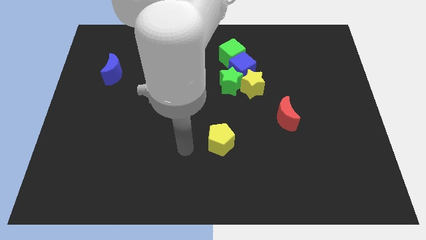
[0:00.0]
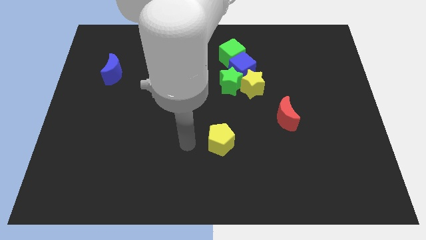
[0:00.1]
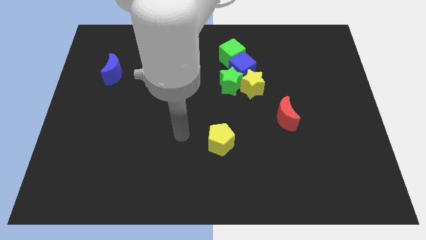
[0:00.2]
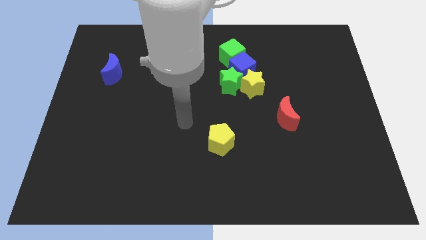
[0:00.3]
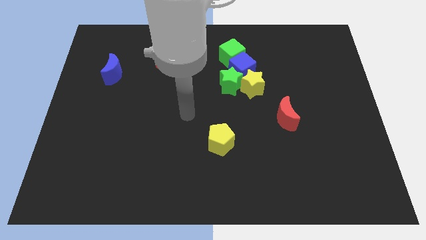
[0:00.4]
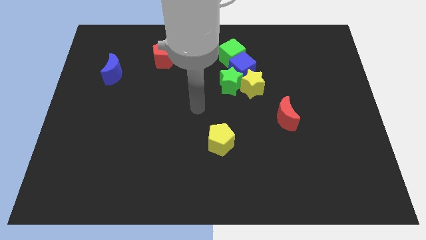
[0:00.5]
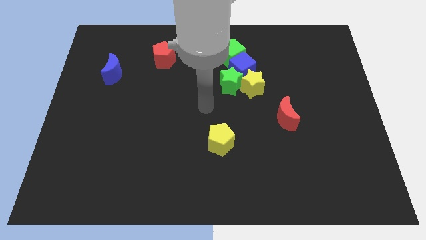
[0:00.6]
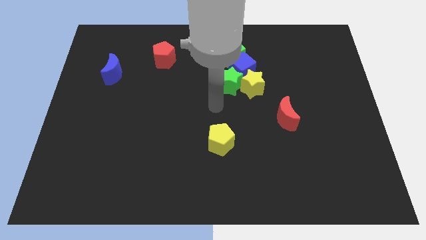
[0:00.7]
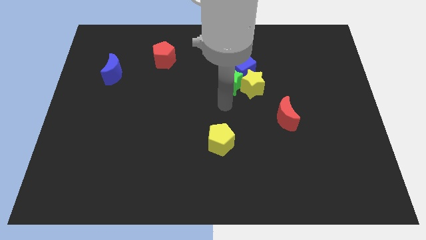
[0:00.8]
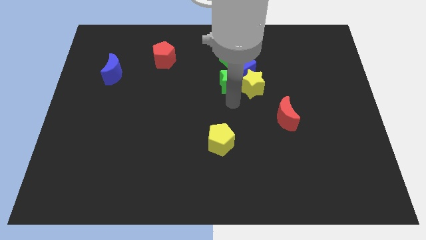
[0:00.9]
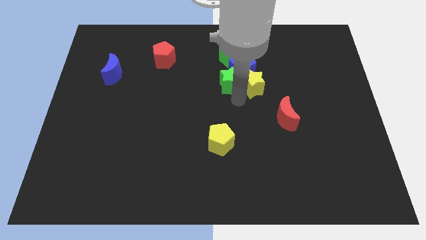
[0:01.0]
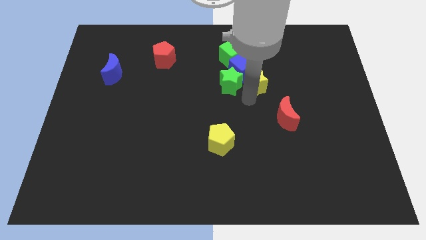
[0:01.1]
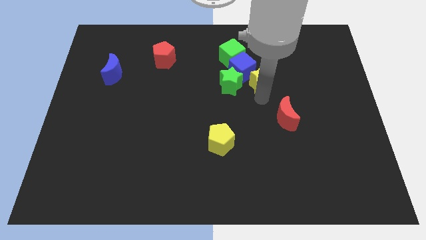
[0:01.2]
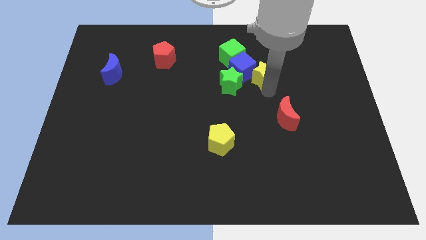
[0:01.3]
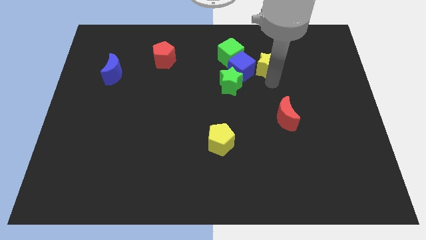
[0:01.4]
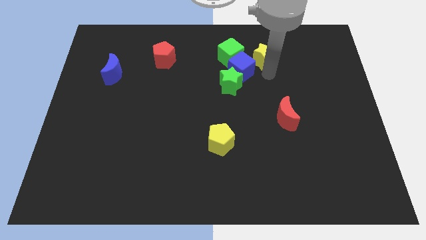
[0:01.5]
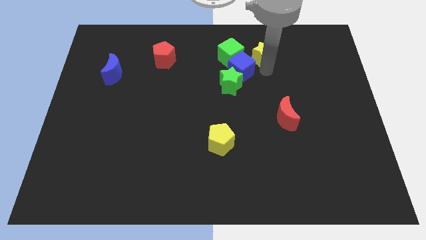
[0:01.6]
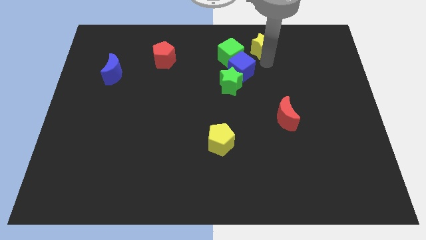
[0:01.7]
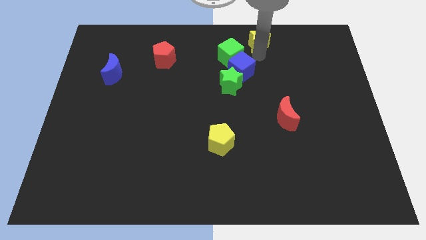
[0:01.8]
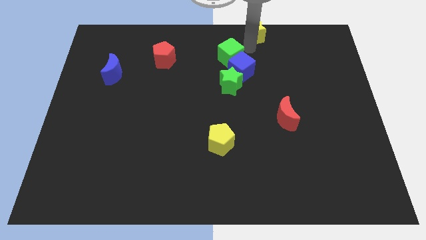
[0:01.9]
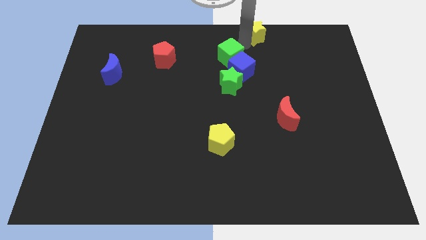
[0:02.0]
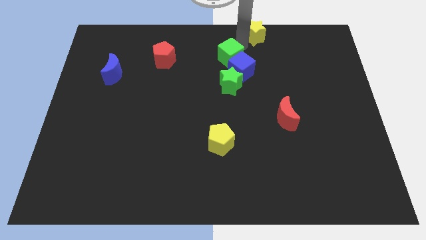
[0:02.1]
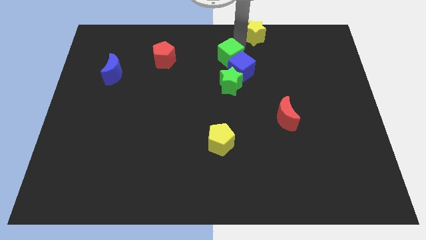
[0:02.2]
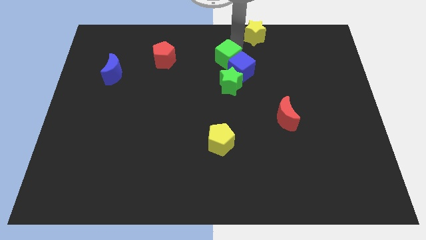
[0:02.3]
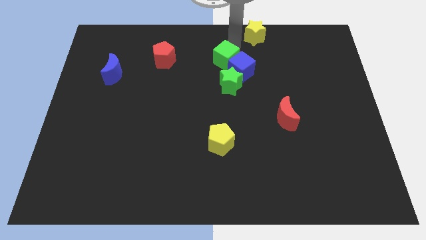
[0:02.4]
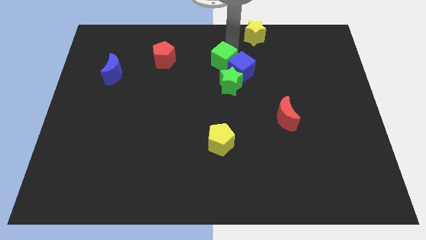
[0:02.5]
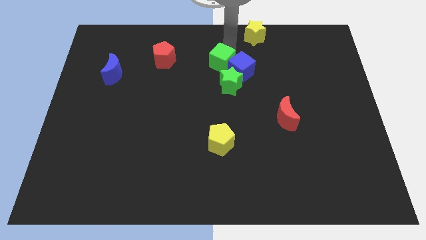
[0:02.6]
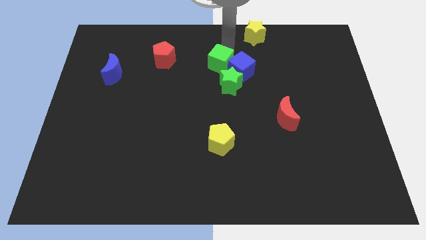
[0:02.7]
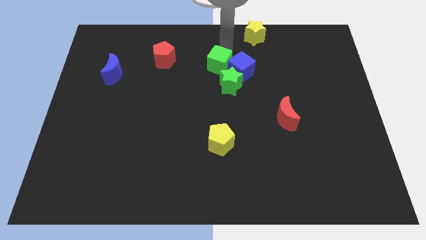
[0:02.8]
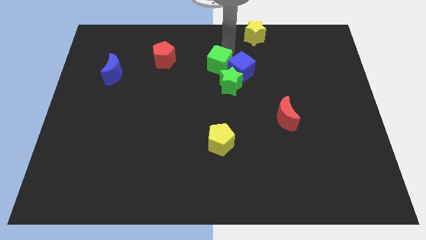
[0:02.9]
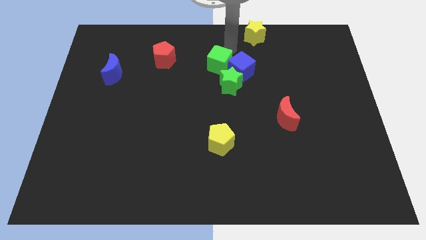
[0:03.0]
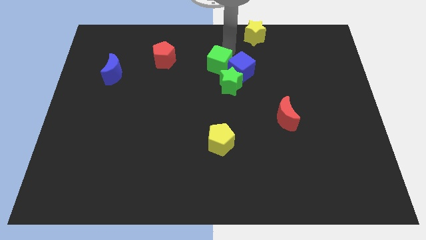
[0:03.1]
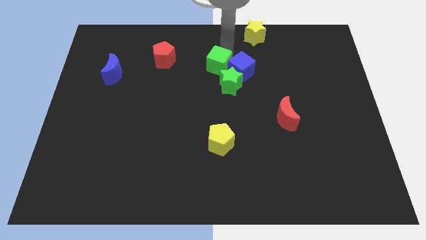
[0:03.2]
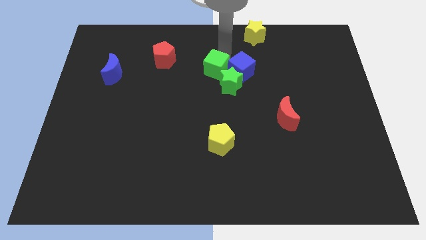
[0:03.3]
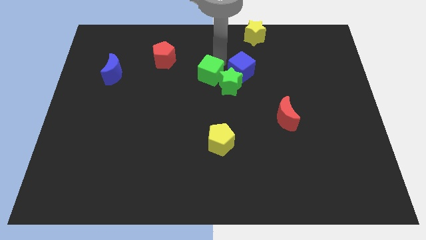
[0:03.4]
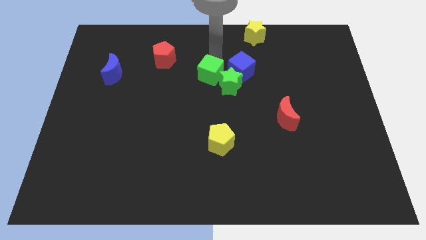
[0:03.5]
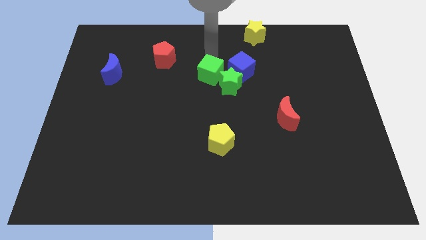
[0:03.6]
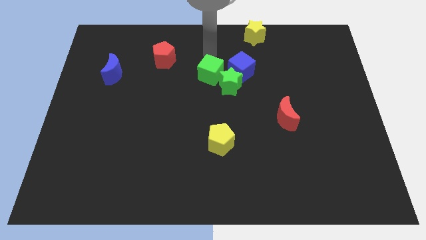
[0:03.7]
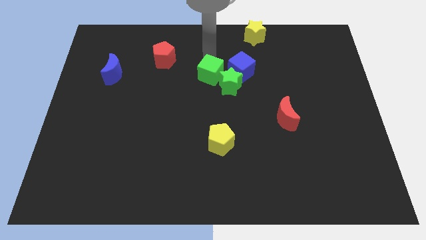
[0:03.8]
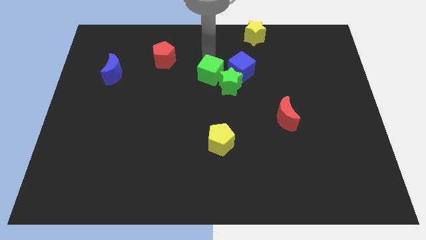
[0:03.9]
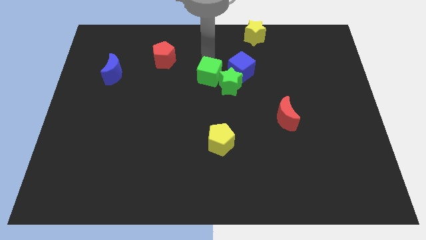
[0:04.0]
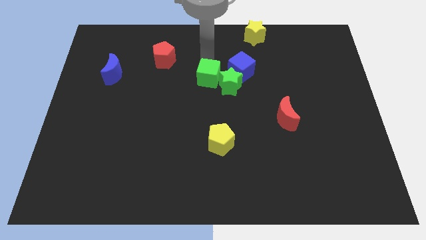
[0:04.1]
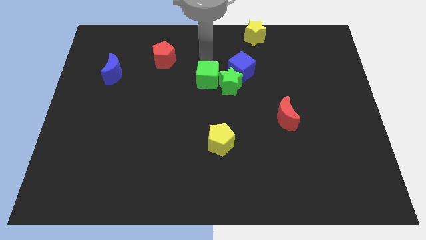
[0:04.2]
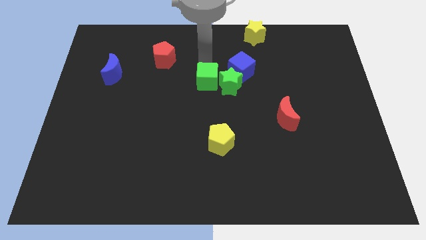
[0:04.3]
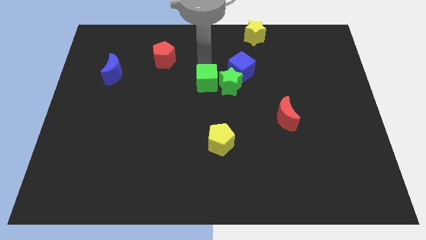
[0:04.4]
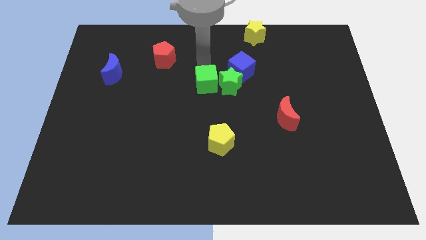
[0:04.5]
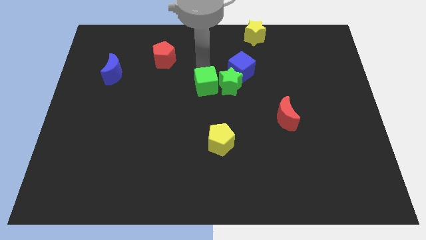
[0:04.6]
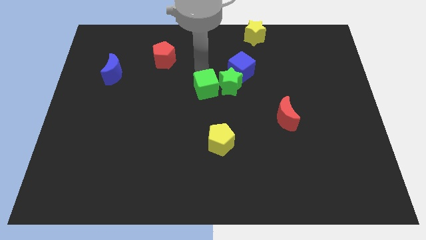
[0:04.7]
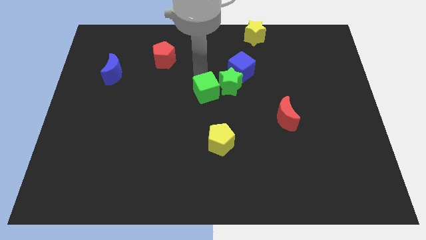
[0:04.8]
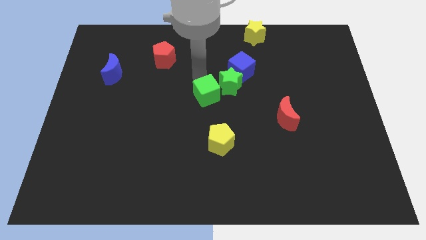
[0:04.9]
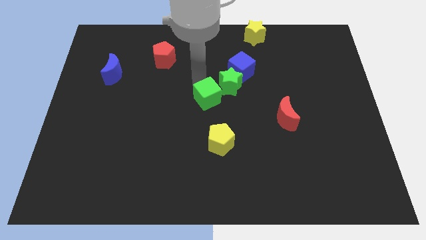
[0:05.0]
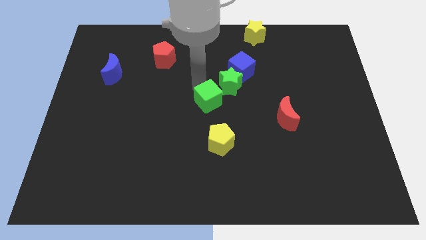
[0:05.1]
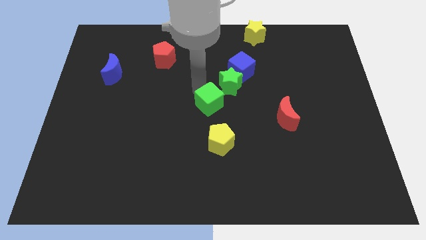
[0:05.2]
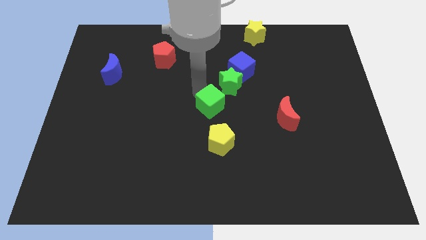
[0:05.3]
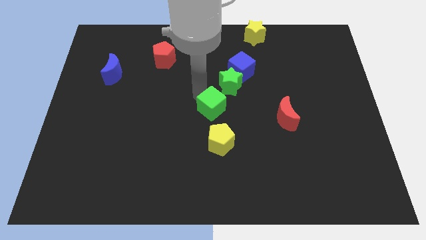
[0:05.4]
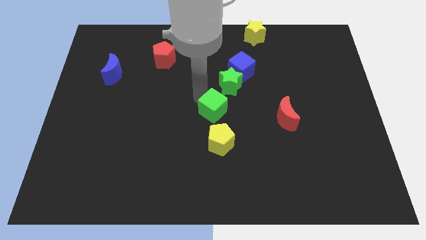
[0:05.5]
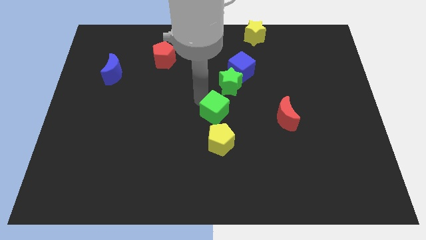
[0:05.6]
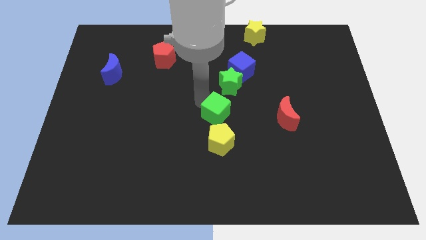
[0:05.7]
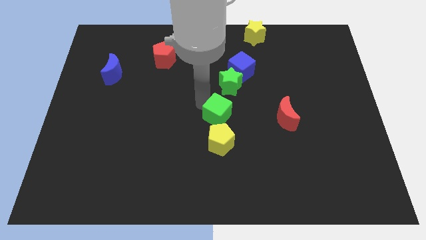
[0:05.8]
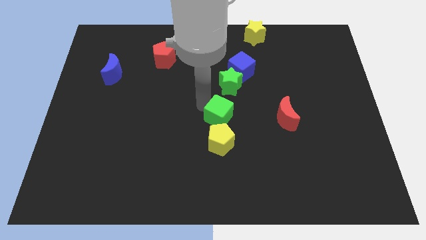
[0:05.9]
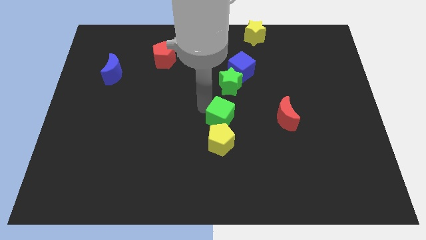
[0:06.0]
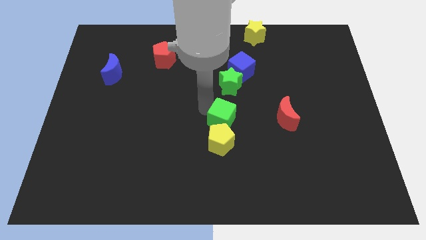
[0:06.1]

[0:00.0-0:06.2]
push the green cube down

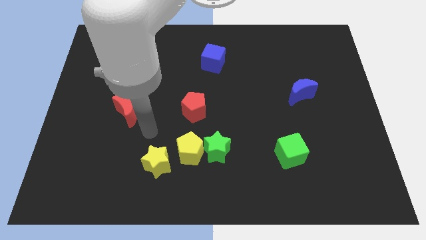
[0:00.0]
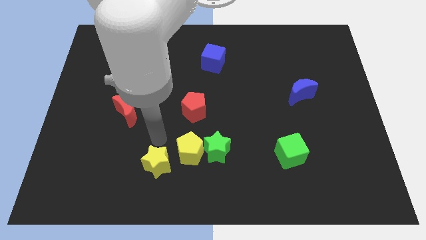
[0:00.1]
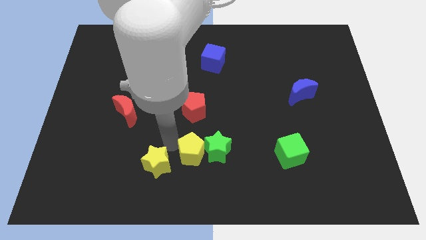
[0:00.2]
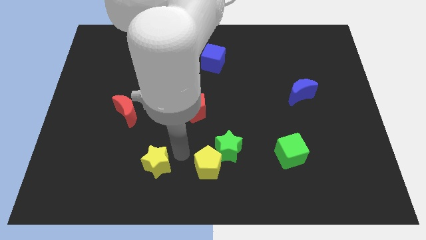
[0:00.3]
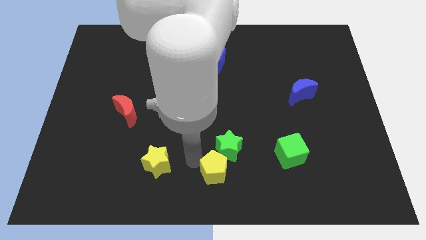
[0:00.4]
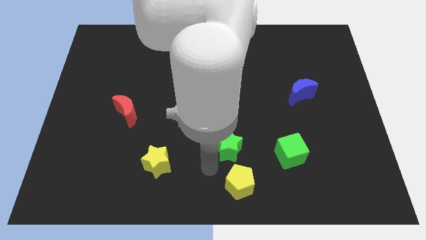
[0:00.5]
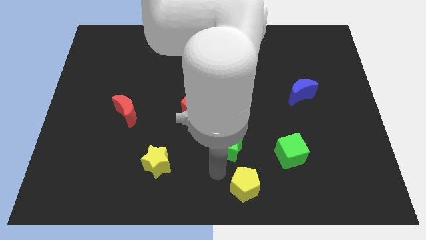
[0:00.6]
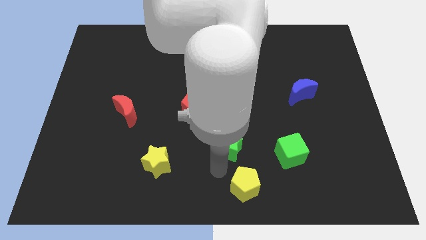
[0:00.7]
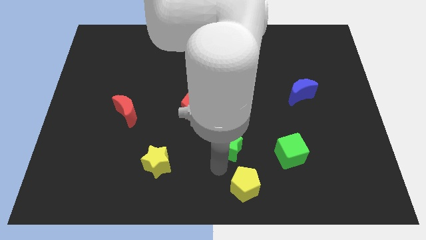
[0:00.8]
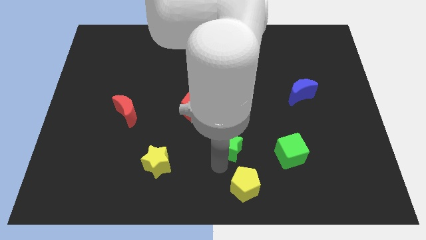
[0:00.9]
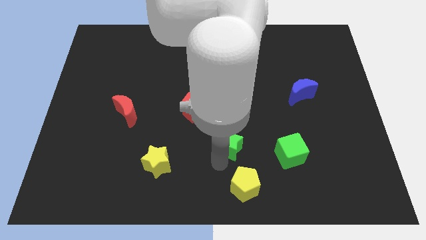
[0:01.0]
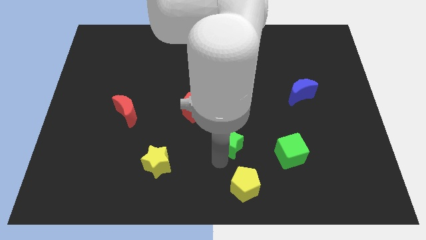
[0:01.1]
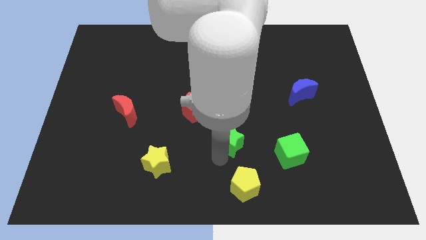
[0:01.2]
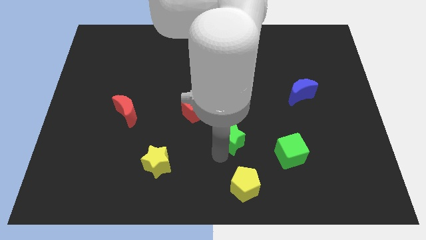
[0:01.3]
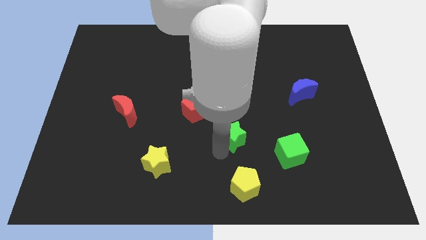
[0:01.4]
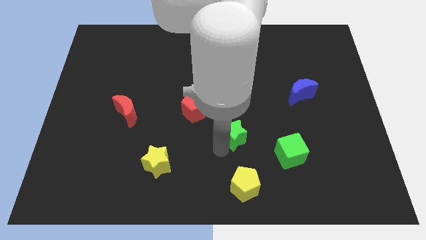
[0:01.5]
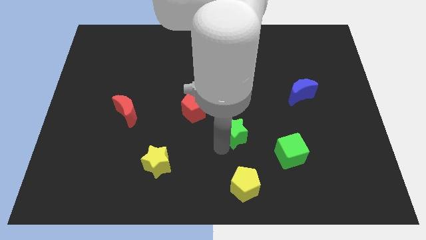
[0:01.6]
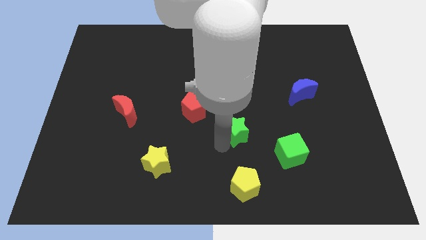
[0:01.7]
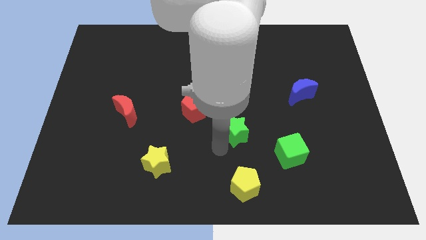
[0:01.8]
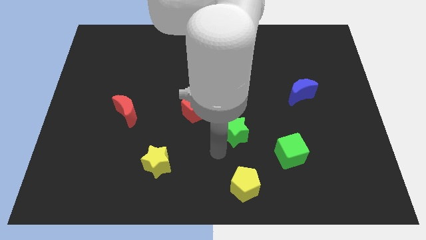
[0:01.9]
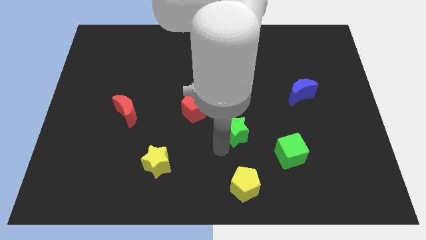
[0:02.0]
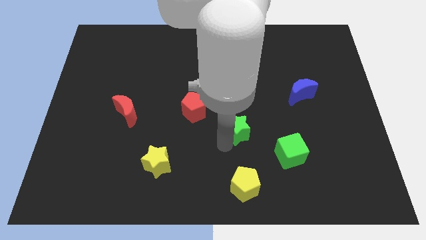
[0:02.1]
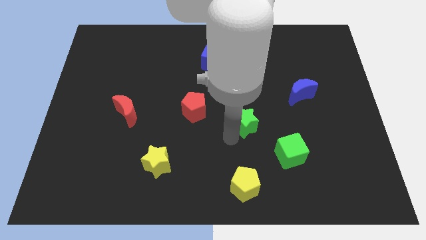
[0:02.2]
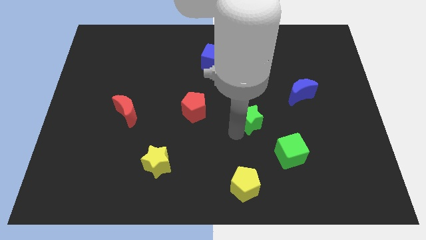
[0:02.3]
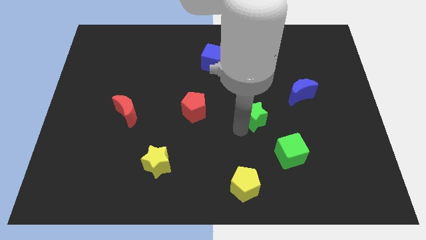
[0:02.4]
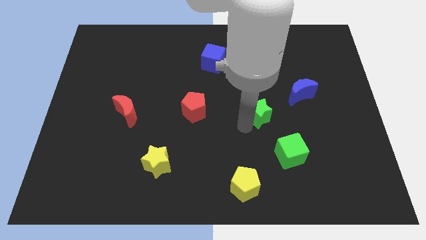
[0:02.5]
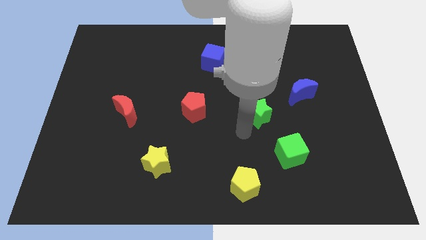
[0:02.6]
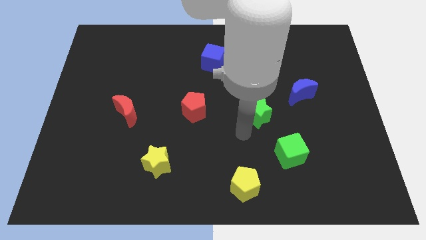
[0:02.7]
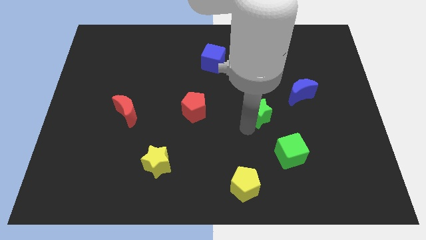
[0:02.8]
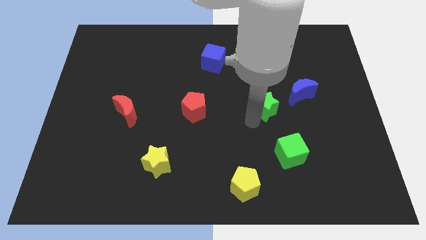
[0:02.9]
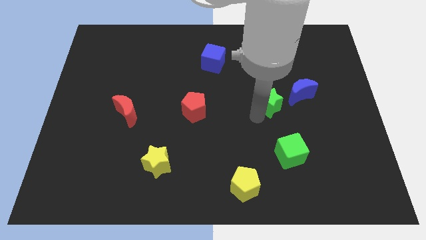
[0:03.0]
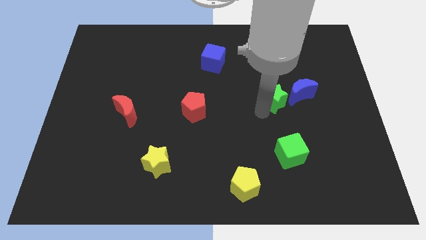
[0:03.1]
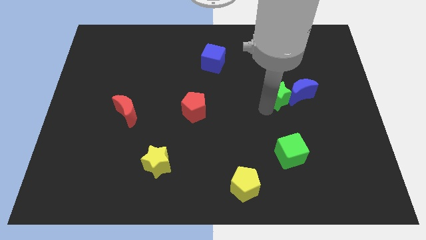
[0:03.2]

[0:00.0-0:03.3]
slide the green star up and to the right diagonally
